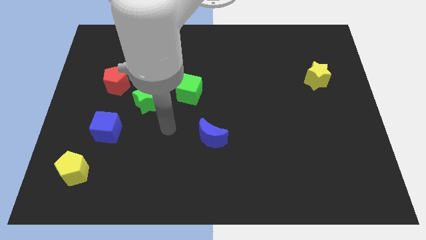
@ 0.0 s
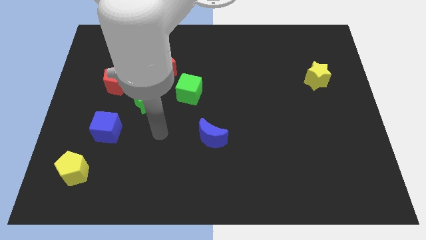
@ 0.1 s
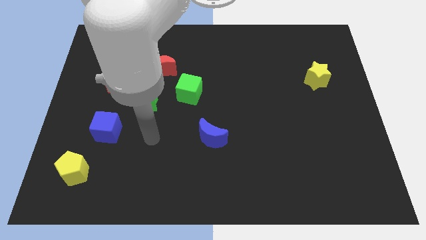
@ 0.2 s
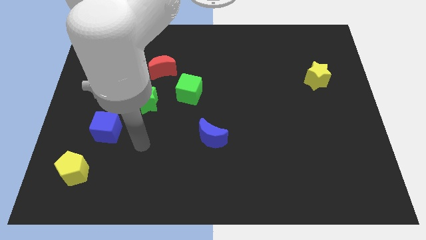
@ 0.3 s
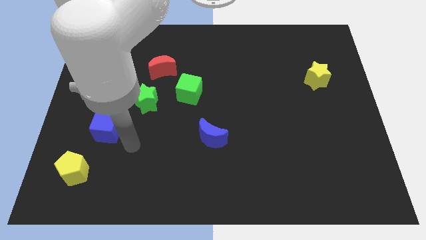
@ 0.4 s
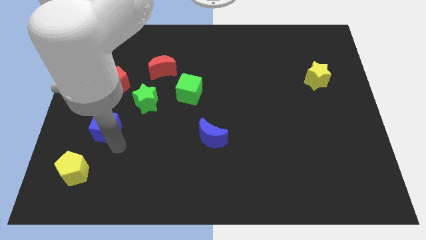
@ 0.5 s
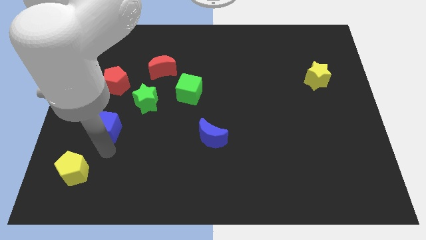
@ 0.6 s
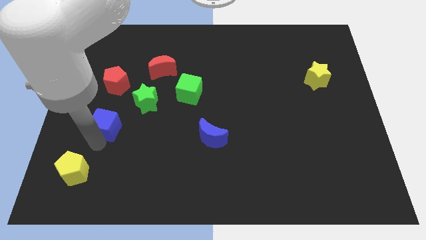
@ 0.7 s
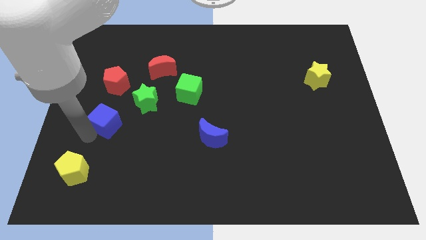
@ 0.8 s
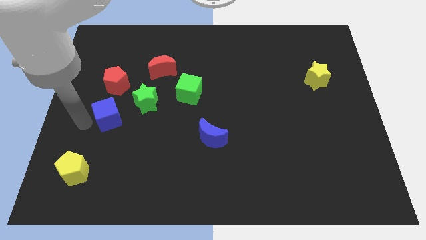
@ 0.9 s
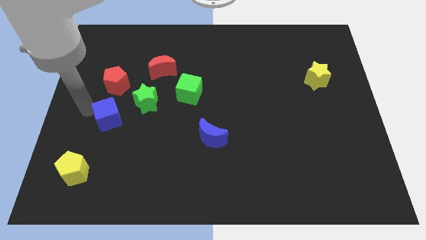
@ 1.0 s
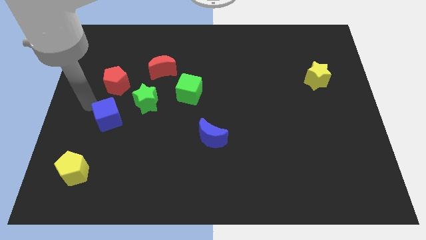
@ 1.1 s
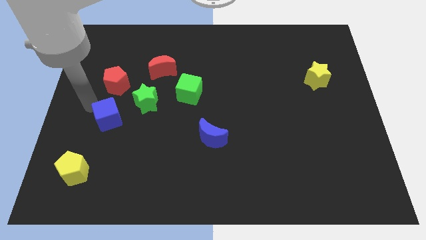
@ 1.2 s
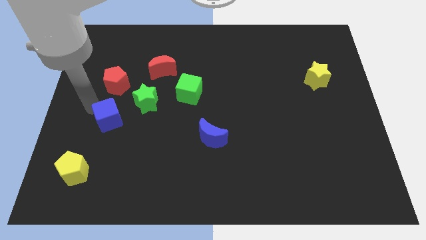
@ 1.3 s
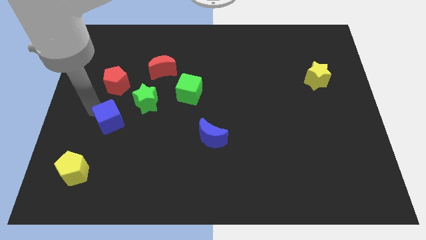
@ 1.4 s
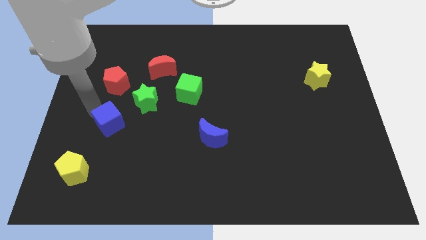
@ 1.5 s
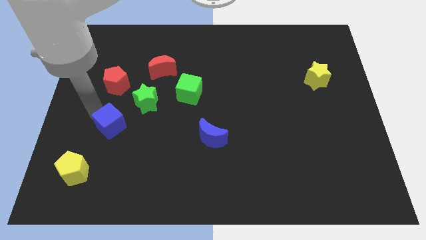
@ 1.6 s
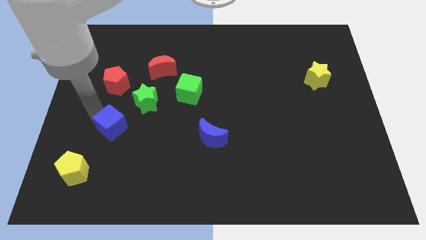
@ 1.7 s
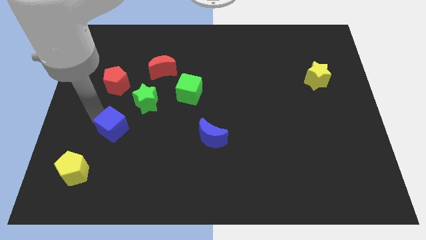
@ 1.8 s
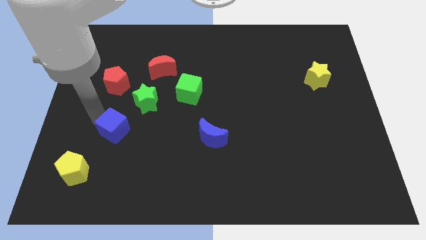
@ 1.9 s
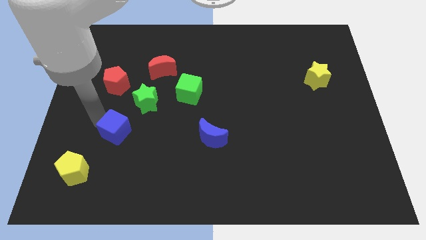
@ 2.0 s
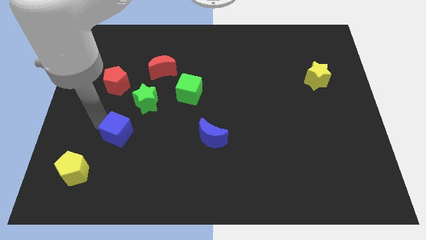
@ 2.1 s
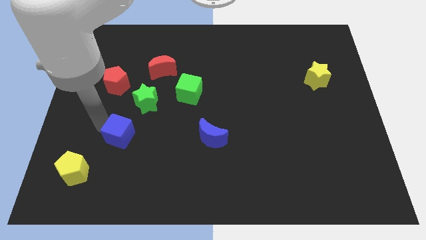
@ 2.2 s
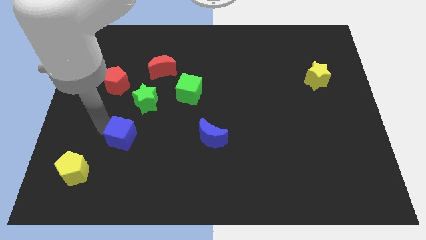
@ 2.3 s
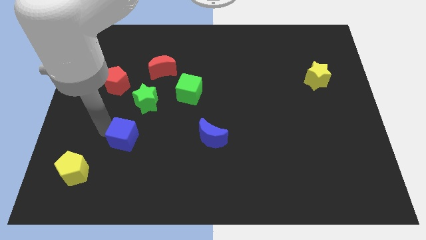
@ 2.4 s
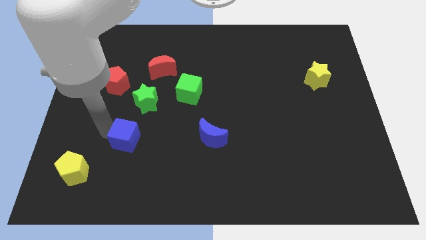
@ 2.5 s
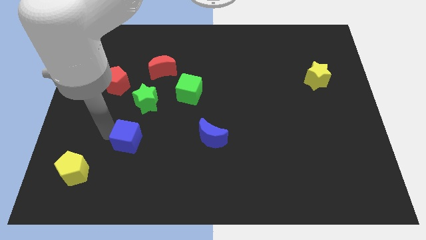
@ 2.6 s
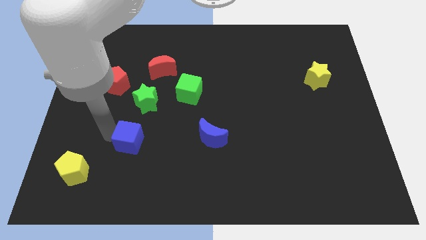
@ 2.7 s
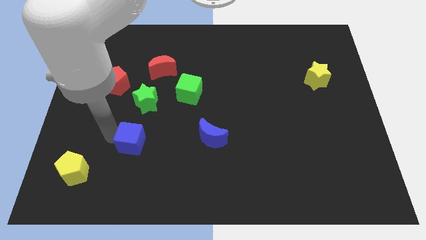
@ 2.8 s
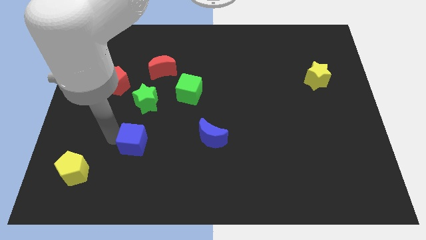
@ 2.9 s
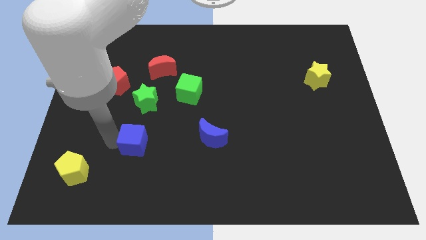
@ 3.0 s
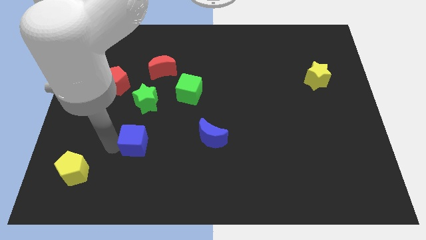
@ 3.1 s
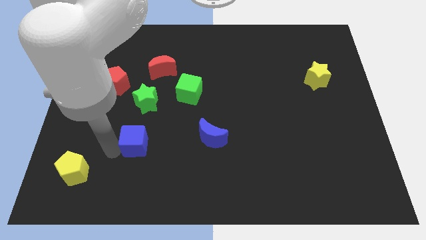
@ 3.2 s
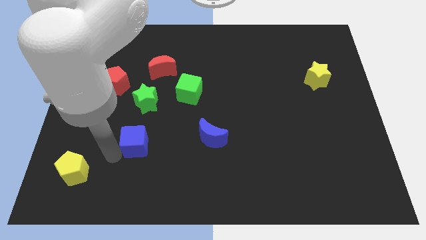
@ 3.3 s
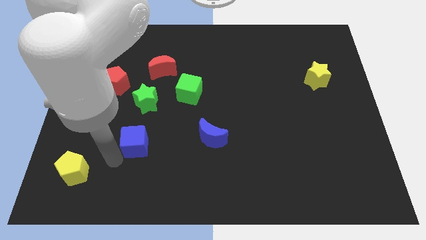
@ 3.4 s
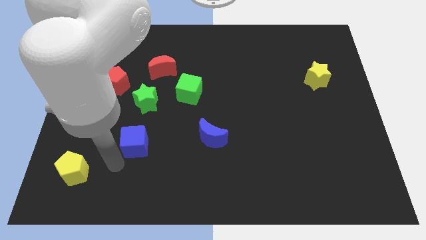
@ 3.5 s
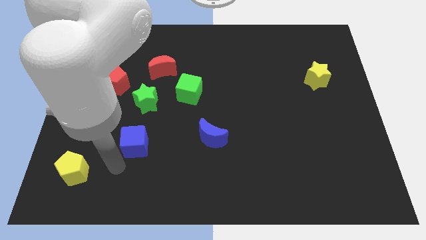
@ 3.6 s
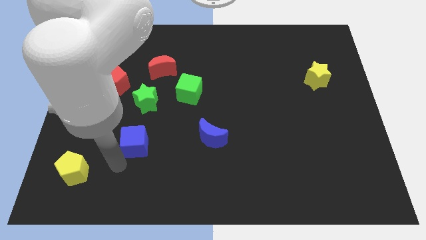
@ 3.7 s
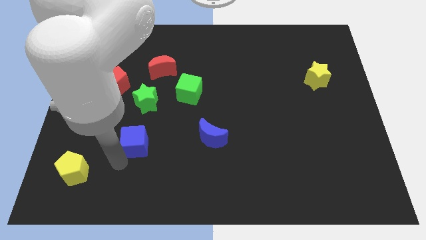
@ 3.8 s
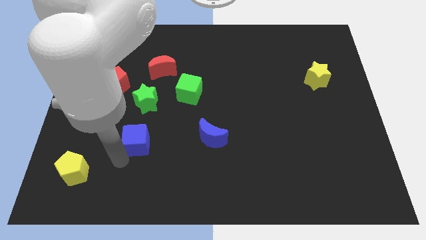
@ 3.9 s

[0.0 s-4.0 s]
slide the blue cube right a bit

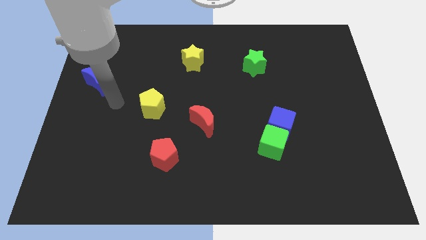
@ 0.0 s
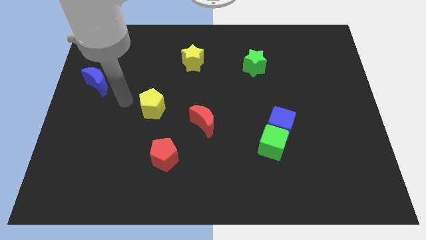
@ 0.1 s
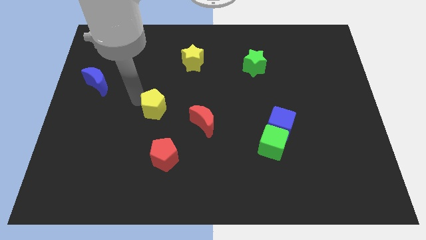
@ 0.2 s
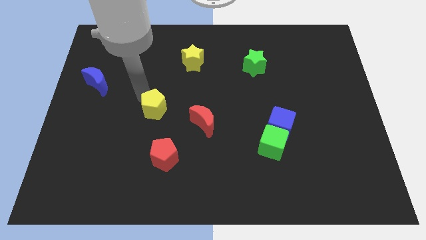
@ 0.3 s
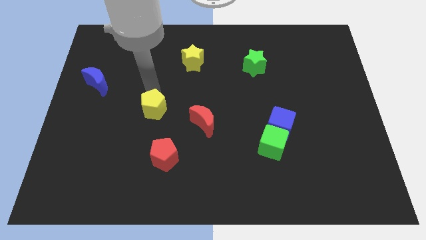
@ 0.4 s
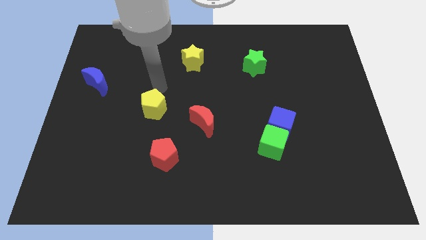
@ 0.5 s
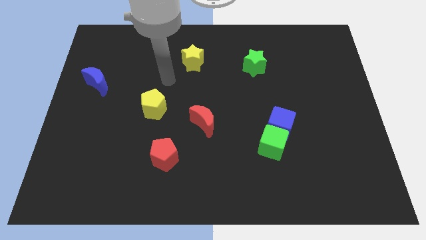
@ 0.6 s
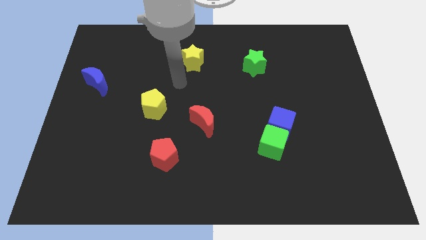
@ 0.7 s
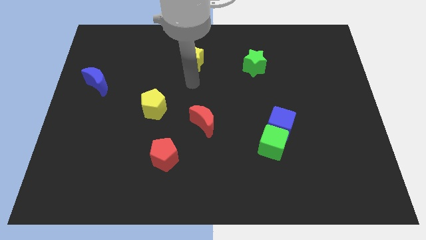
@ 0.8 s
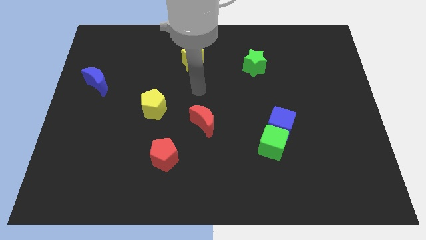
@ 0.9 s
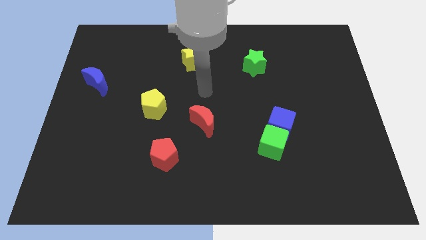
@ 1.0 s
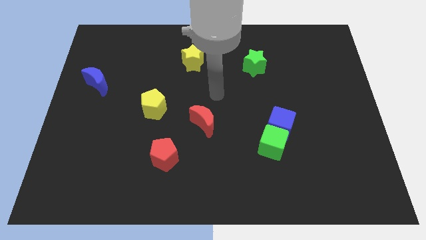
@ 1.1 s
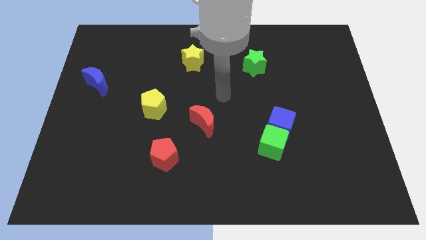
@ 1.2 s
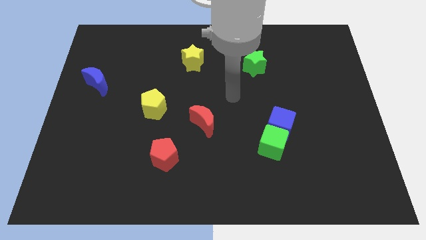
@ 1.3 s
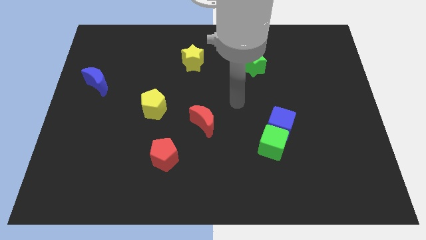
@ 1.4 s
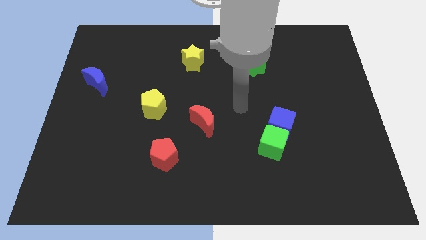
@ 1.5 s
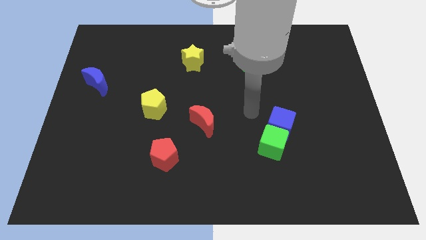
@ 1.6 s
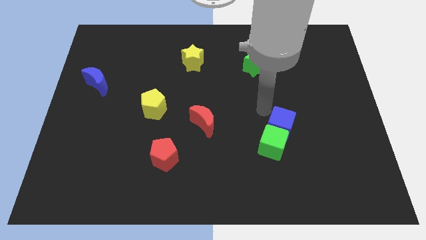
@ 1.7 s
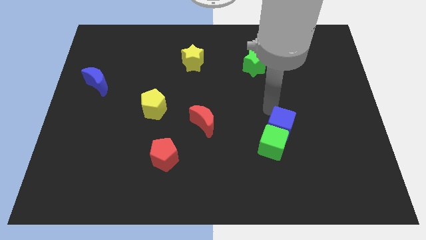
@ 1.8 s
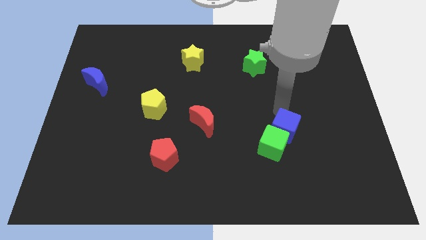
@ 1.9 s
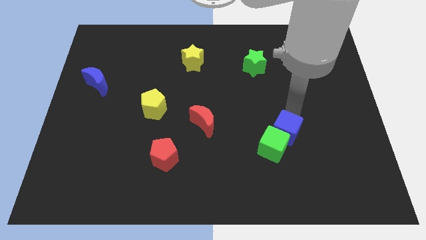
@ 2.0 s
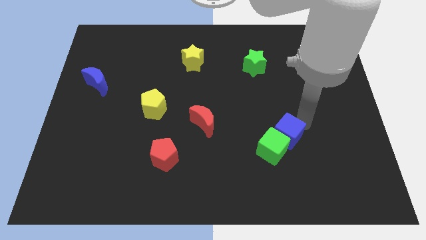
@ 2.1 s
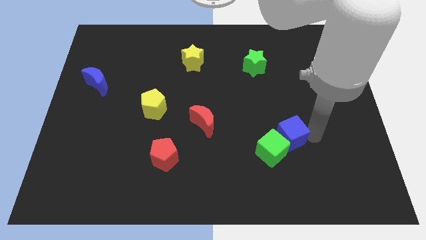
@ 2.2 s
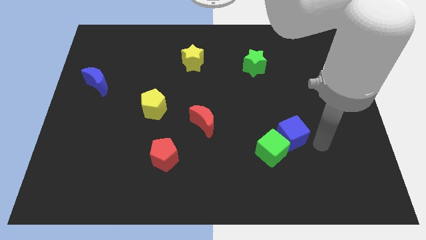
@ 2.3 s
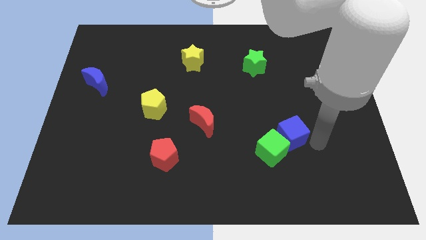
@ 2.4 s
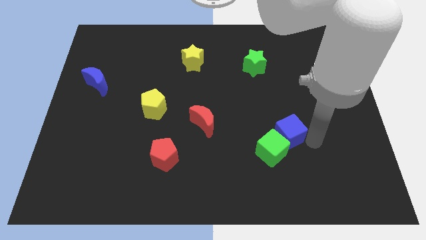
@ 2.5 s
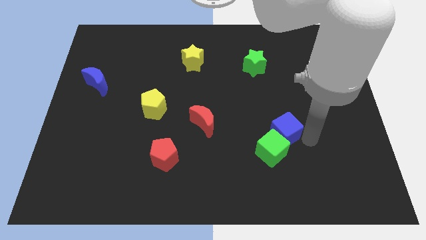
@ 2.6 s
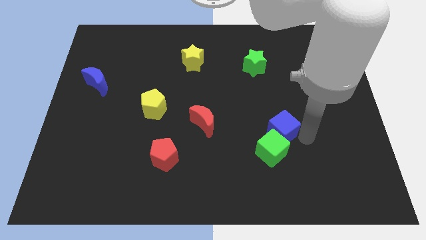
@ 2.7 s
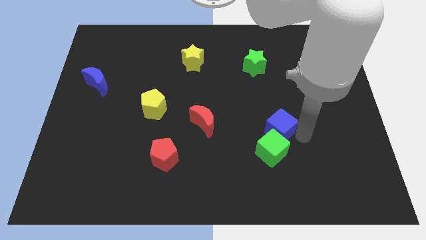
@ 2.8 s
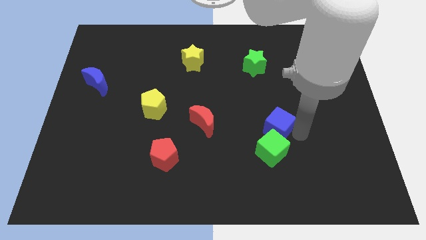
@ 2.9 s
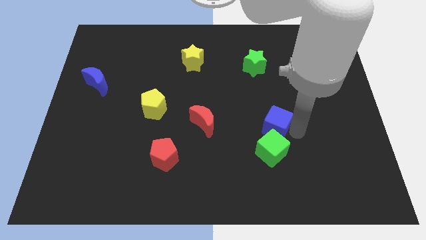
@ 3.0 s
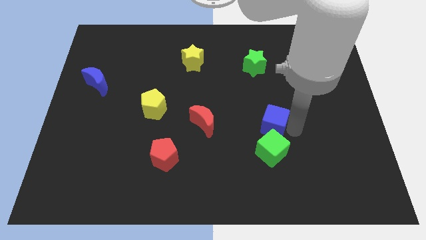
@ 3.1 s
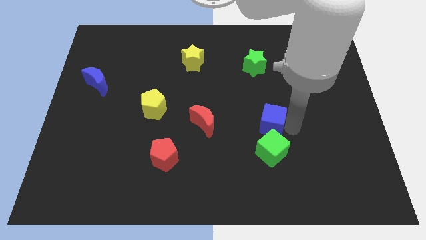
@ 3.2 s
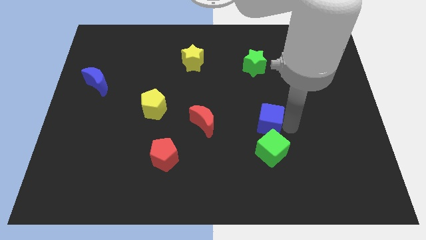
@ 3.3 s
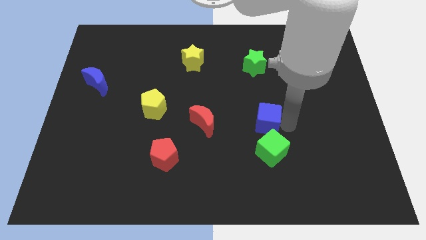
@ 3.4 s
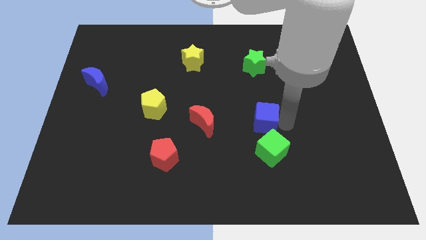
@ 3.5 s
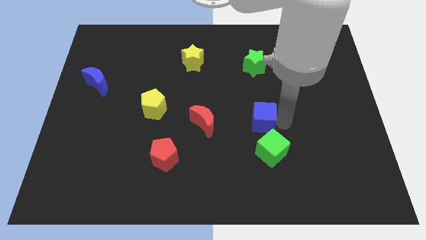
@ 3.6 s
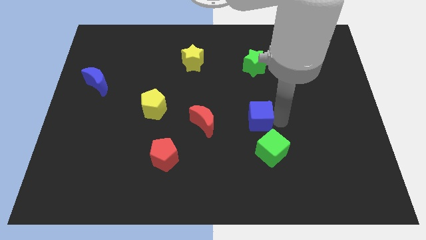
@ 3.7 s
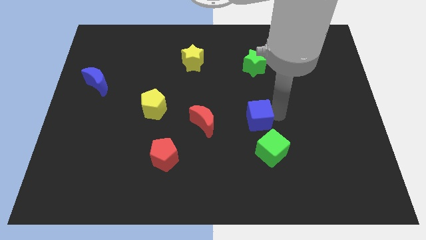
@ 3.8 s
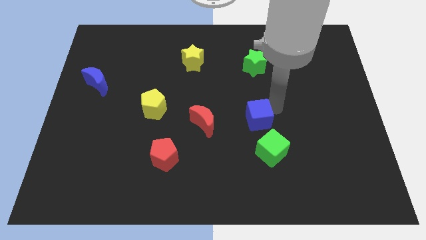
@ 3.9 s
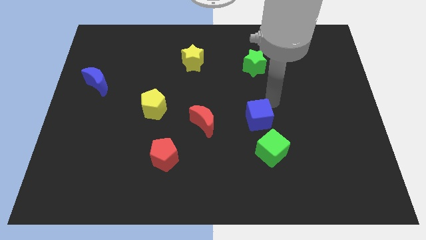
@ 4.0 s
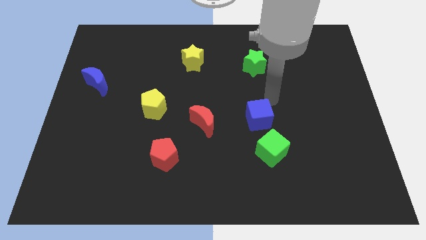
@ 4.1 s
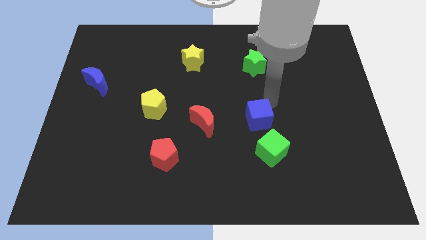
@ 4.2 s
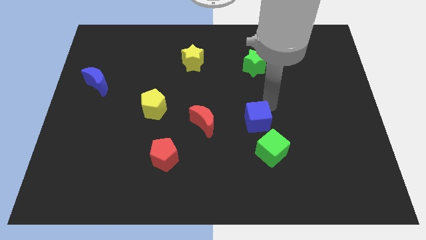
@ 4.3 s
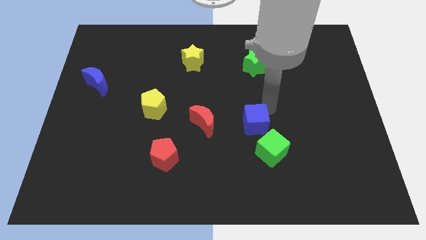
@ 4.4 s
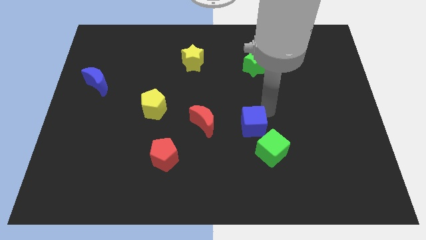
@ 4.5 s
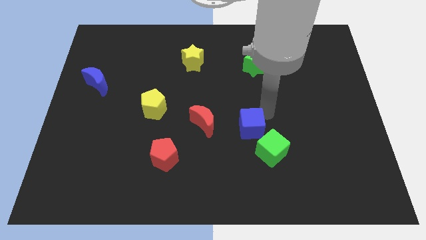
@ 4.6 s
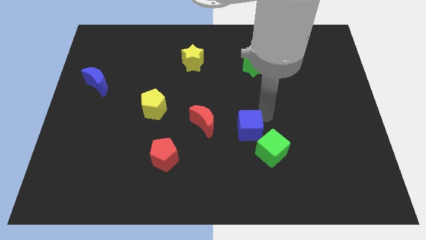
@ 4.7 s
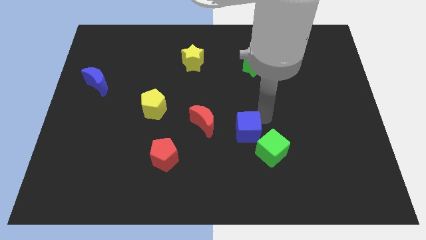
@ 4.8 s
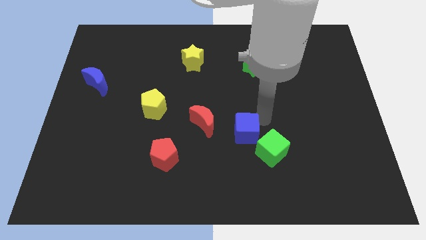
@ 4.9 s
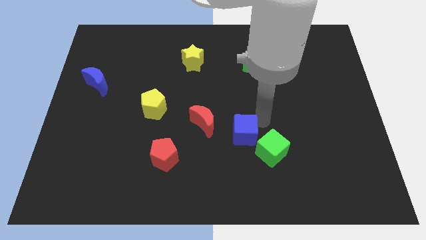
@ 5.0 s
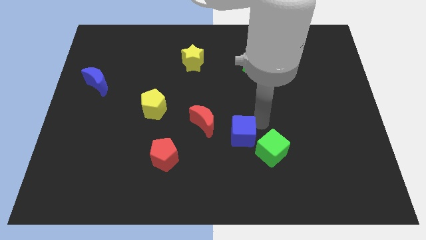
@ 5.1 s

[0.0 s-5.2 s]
push the blue cube diagonally down and left a bit
